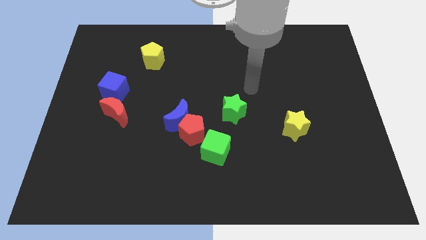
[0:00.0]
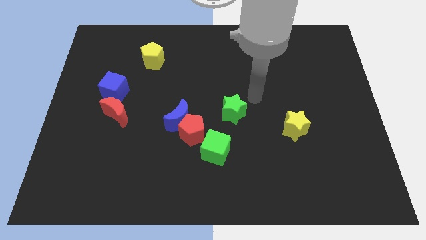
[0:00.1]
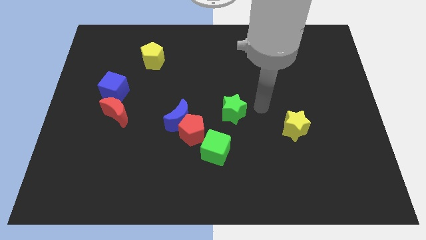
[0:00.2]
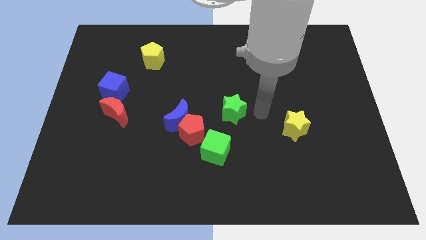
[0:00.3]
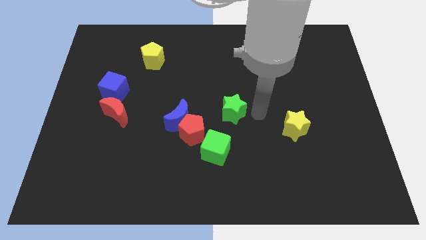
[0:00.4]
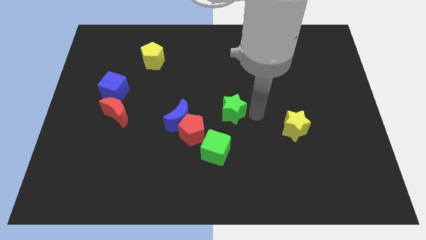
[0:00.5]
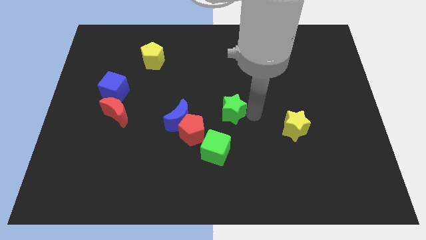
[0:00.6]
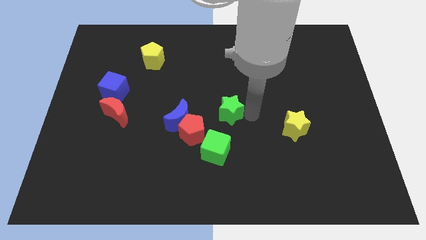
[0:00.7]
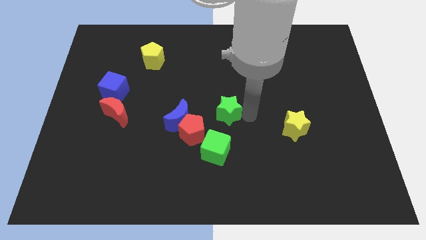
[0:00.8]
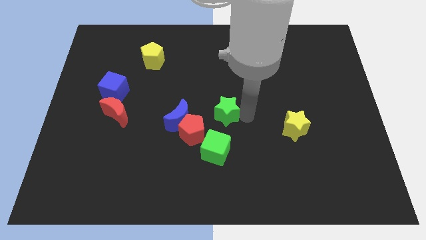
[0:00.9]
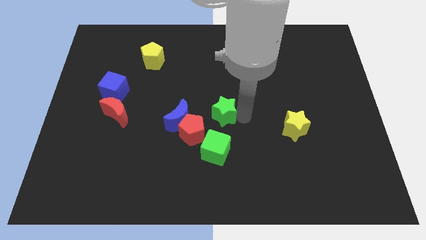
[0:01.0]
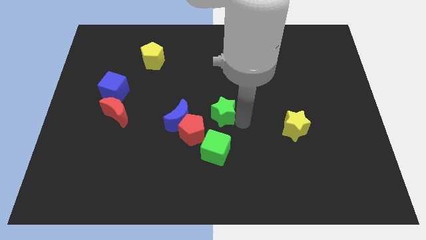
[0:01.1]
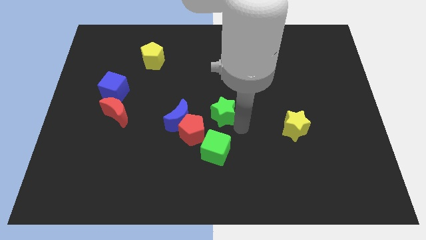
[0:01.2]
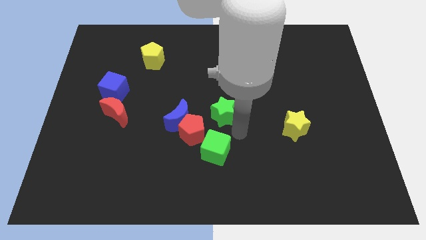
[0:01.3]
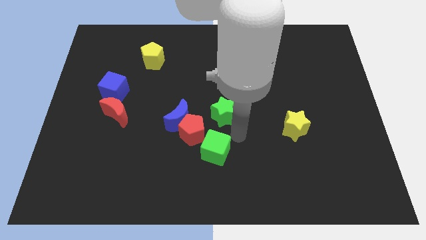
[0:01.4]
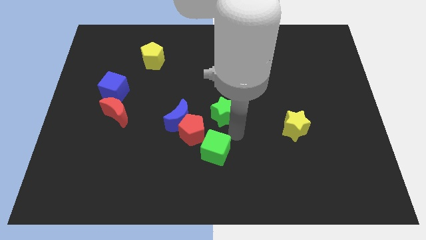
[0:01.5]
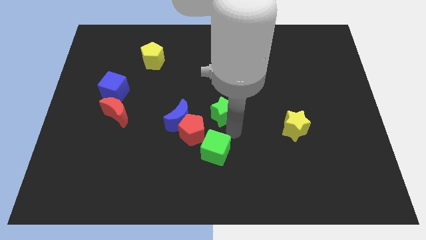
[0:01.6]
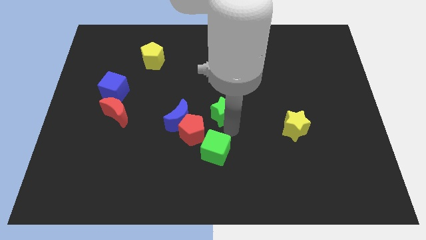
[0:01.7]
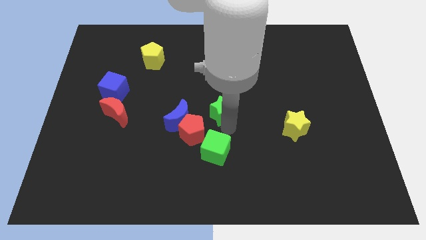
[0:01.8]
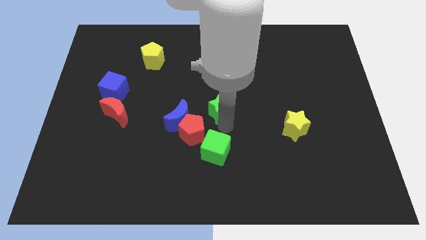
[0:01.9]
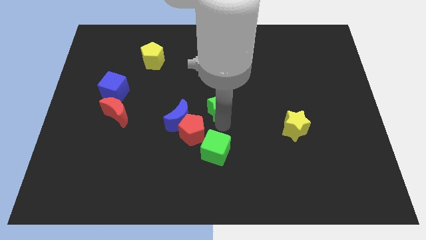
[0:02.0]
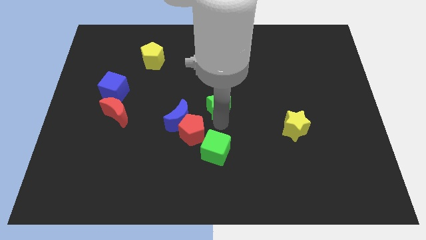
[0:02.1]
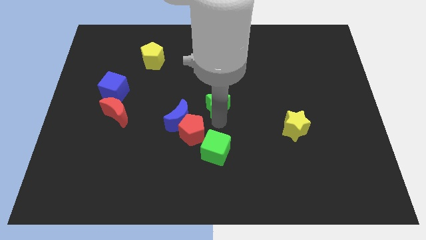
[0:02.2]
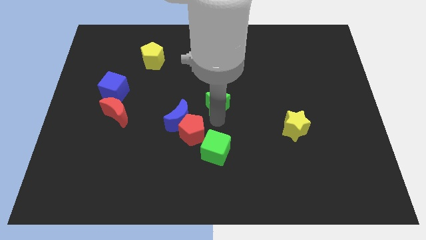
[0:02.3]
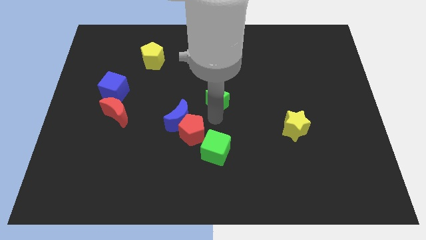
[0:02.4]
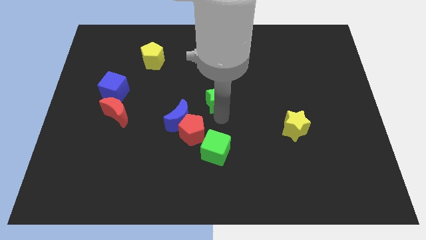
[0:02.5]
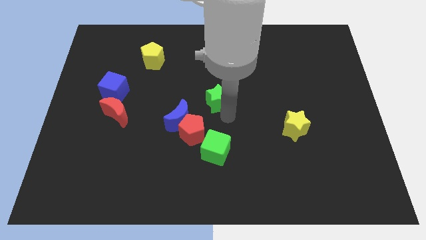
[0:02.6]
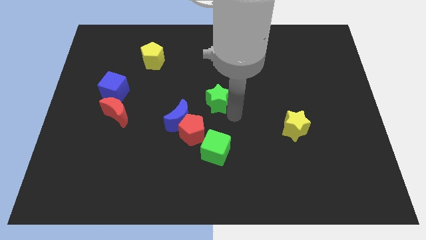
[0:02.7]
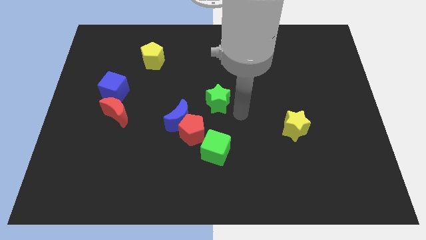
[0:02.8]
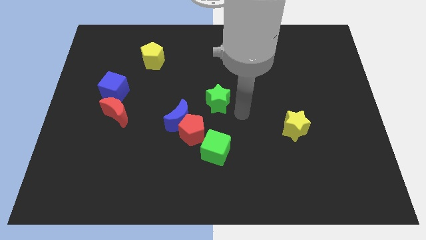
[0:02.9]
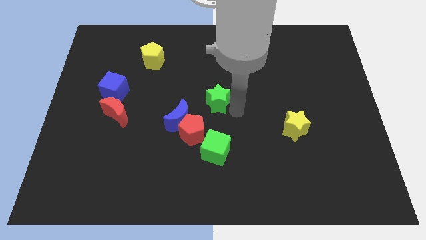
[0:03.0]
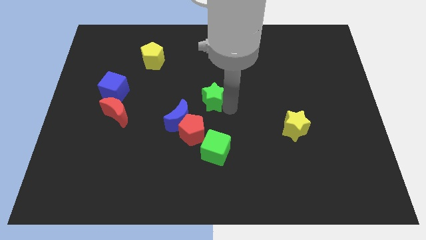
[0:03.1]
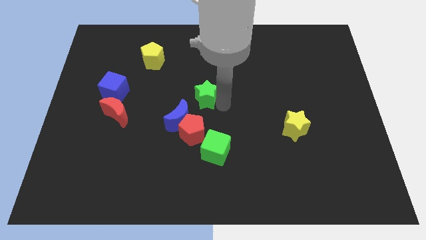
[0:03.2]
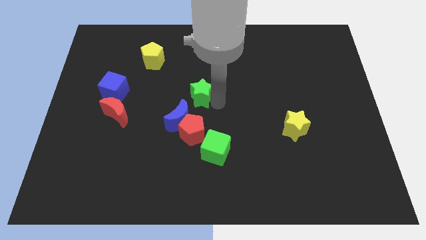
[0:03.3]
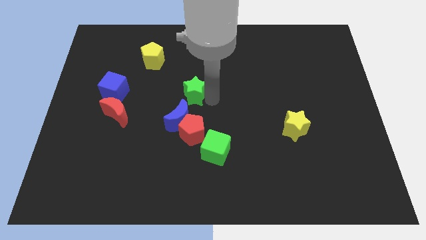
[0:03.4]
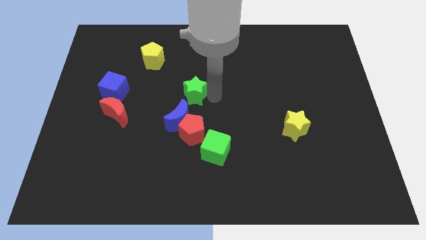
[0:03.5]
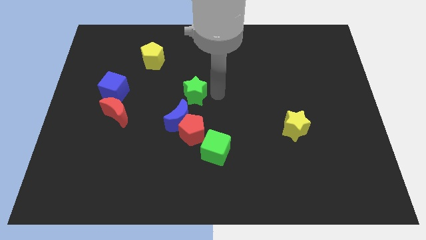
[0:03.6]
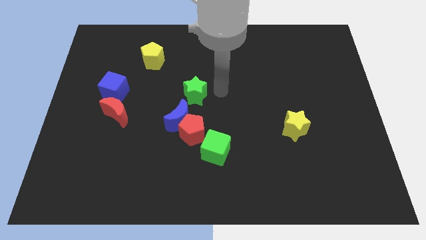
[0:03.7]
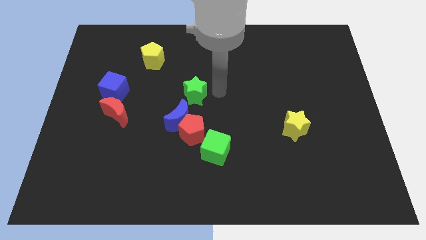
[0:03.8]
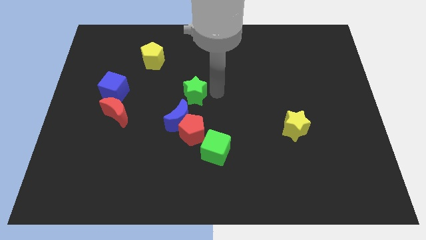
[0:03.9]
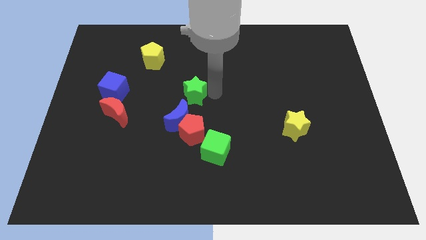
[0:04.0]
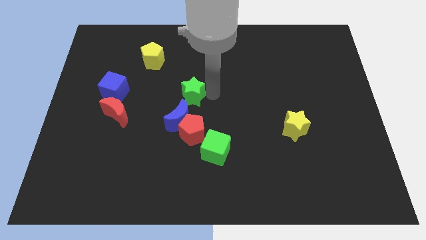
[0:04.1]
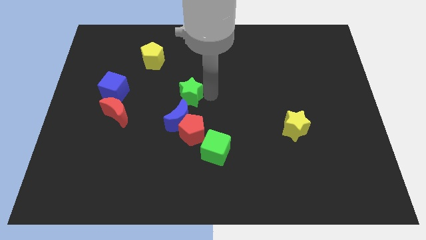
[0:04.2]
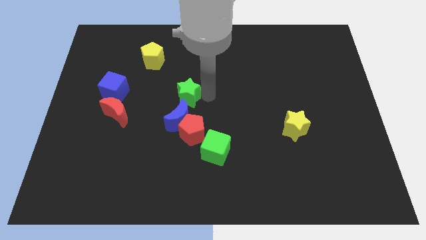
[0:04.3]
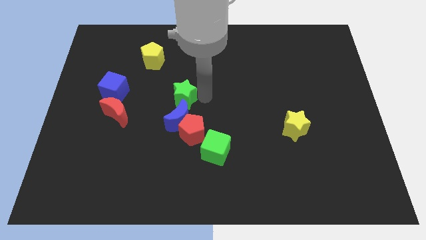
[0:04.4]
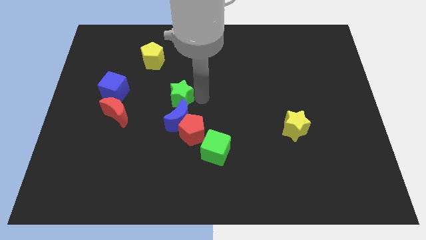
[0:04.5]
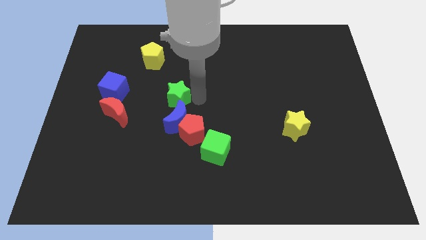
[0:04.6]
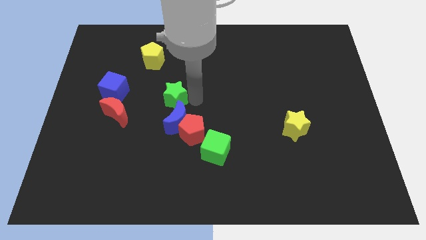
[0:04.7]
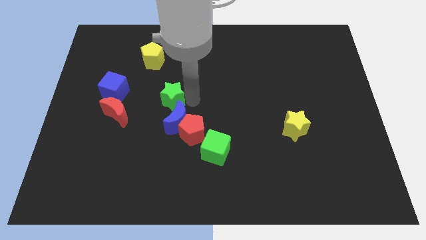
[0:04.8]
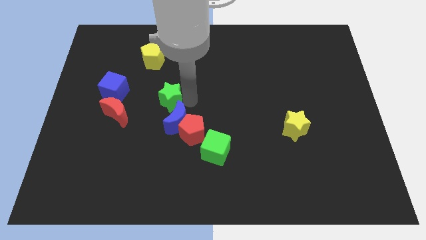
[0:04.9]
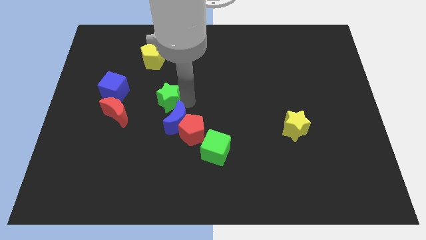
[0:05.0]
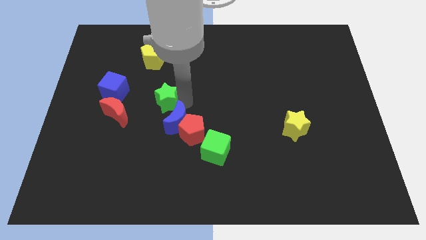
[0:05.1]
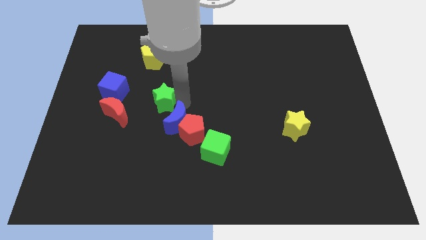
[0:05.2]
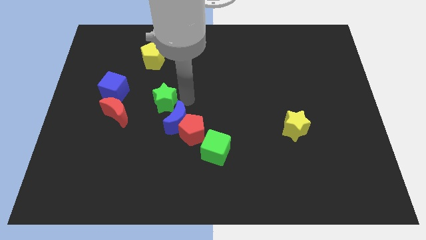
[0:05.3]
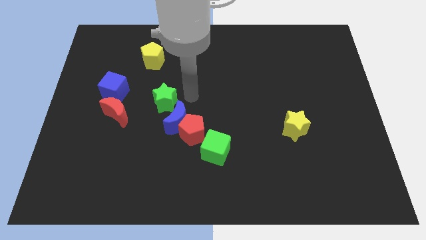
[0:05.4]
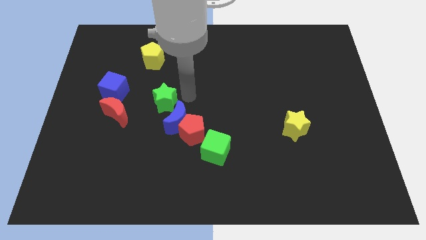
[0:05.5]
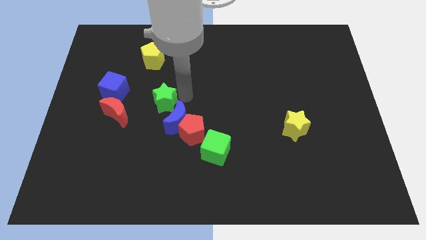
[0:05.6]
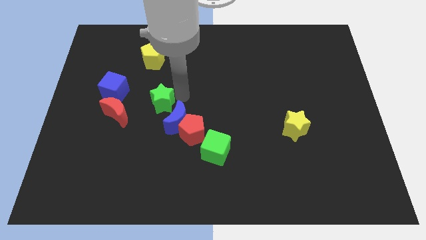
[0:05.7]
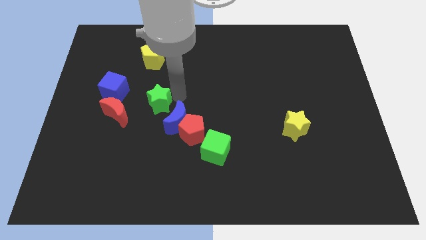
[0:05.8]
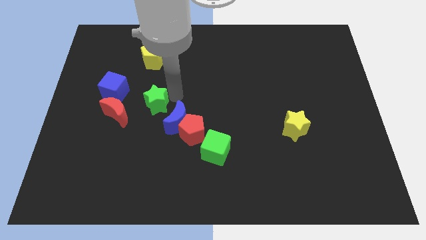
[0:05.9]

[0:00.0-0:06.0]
slide the green star to the bottom right of the blue cube

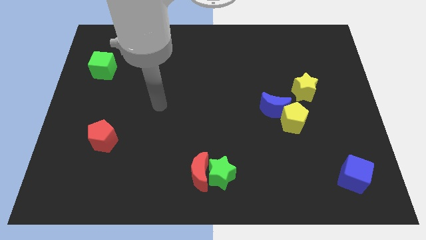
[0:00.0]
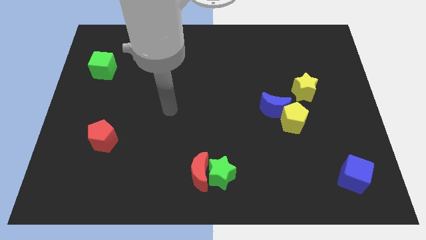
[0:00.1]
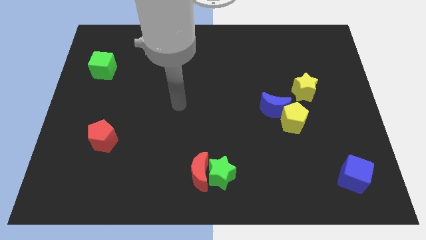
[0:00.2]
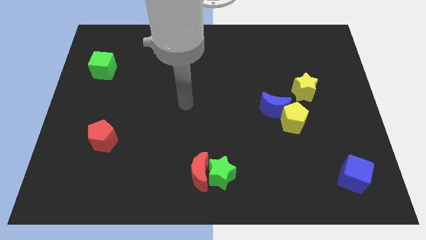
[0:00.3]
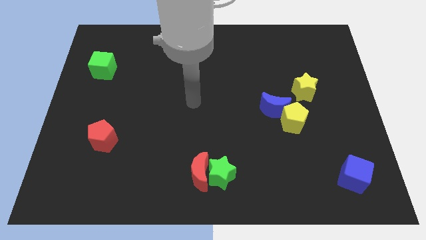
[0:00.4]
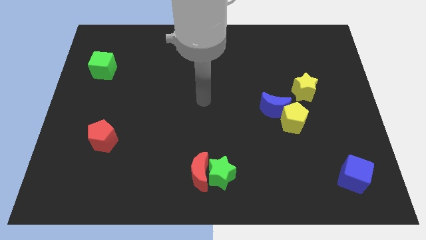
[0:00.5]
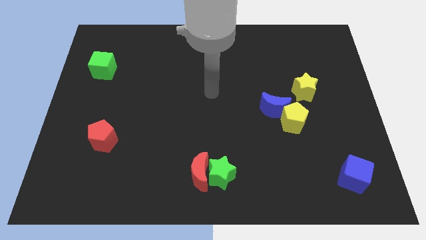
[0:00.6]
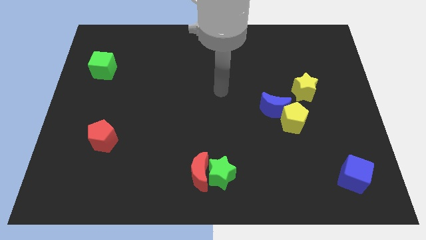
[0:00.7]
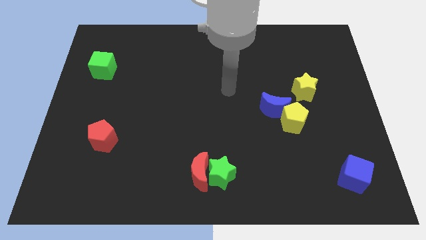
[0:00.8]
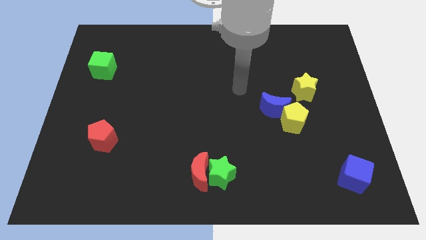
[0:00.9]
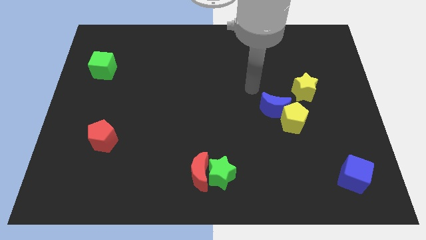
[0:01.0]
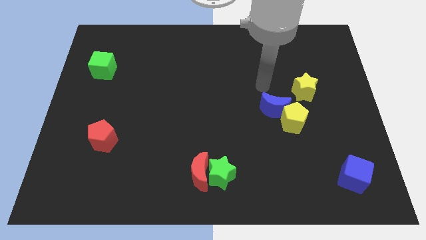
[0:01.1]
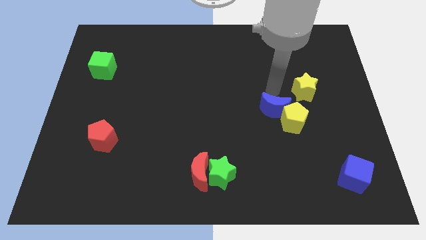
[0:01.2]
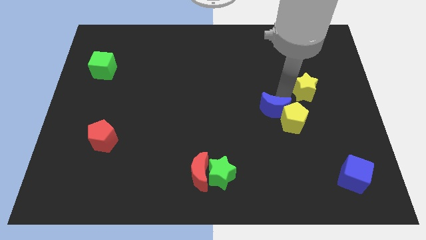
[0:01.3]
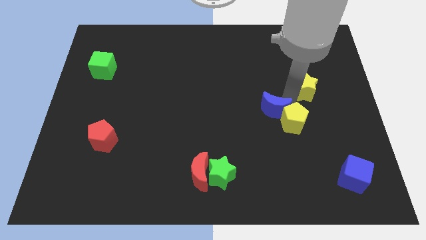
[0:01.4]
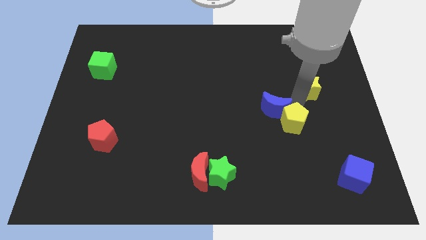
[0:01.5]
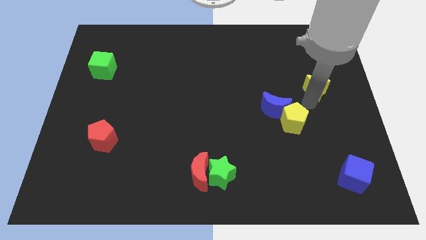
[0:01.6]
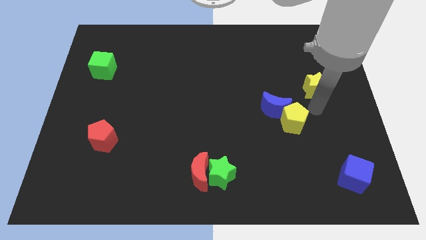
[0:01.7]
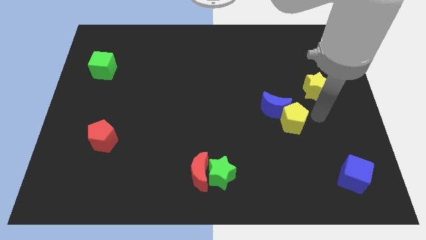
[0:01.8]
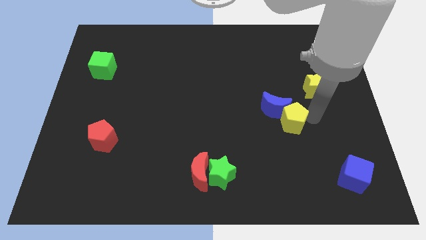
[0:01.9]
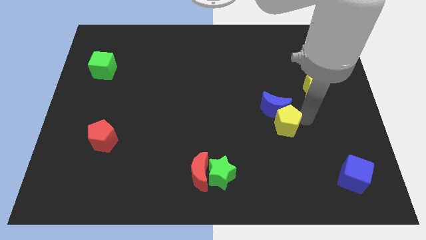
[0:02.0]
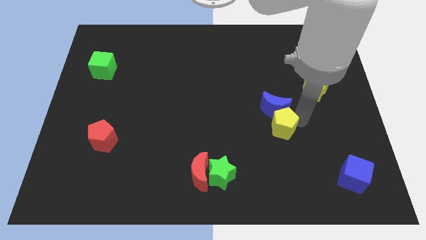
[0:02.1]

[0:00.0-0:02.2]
push the yellow pentagon to the bottom left of the blue moon

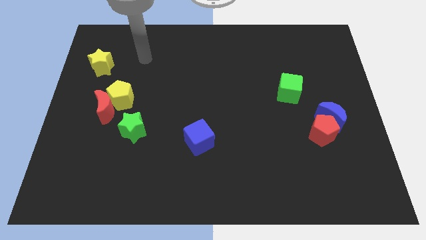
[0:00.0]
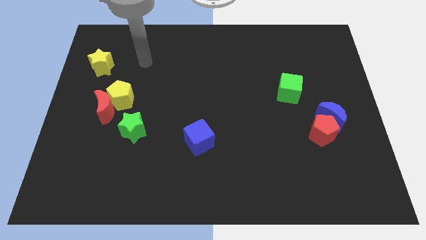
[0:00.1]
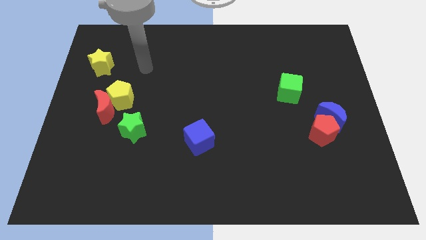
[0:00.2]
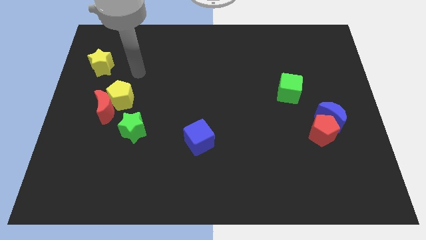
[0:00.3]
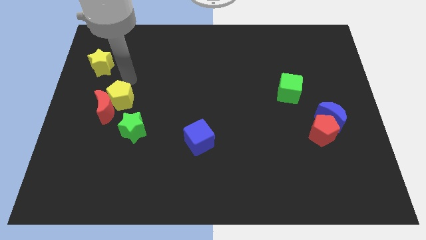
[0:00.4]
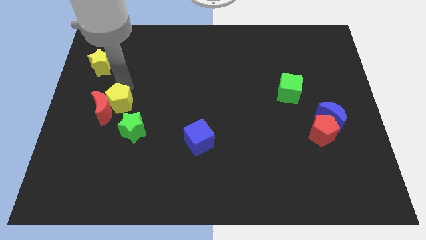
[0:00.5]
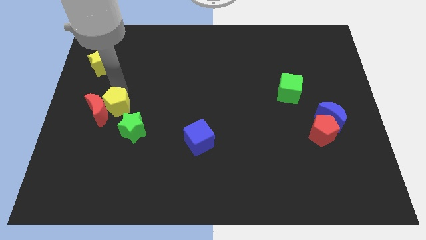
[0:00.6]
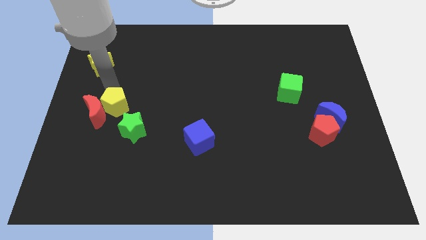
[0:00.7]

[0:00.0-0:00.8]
push the red moon to the left of the green star
